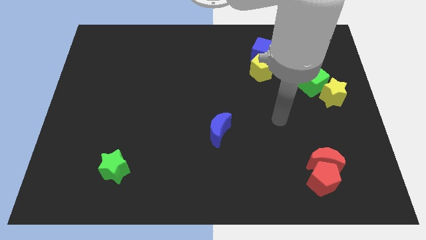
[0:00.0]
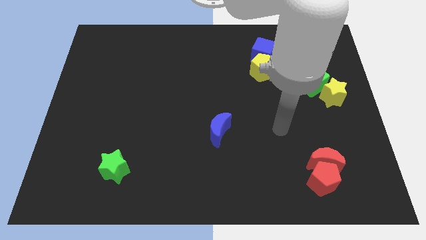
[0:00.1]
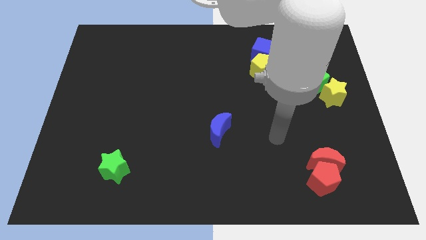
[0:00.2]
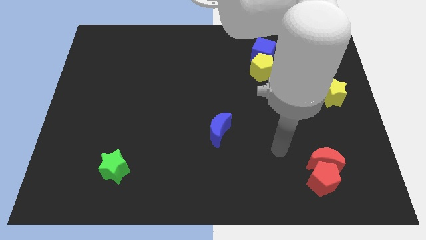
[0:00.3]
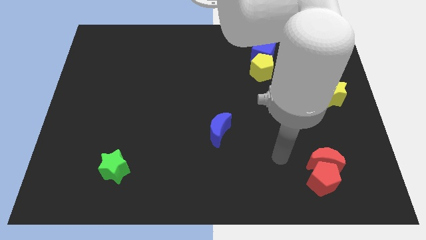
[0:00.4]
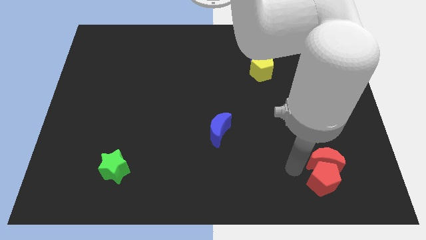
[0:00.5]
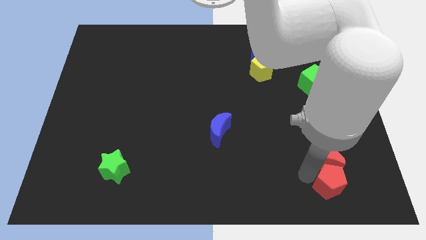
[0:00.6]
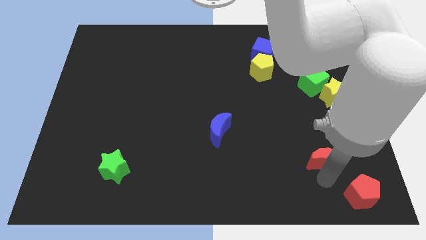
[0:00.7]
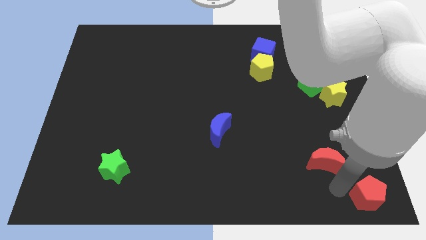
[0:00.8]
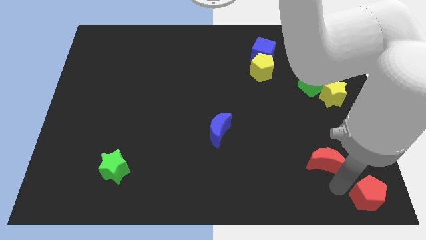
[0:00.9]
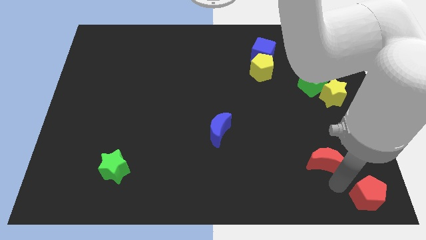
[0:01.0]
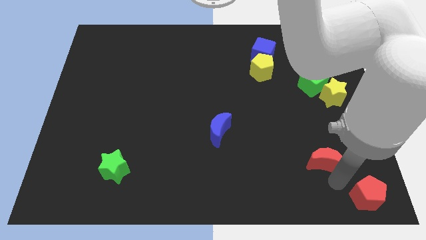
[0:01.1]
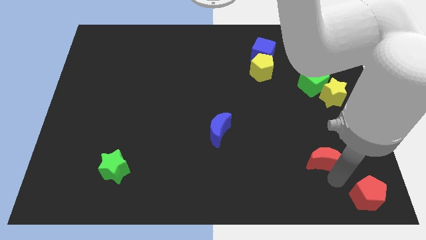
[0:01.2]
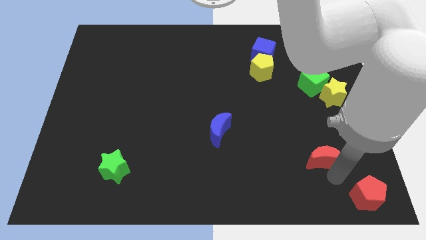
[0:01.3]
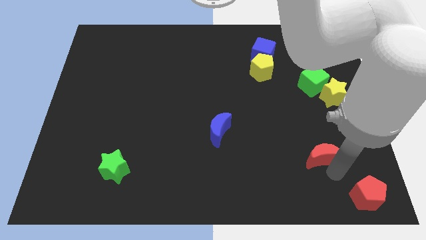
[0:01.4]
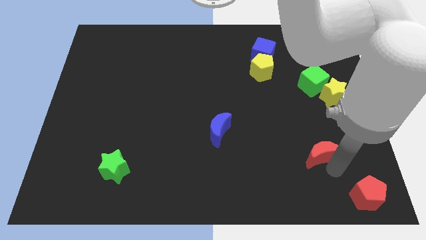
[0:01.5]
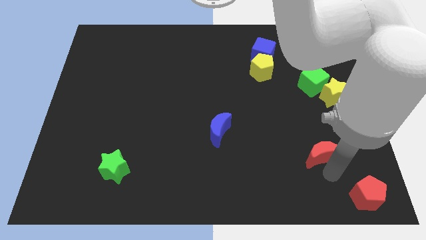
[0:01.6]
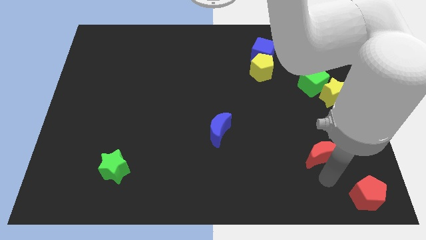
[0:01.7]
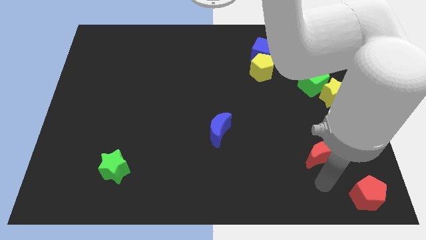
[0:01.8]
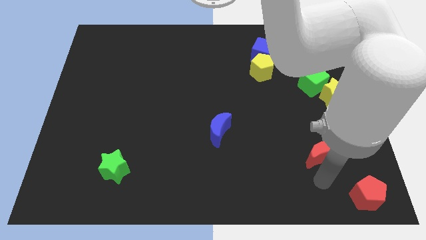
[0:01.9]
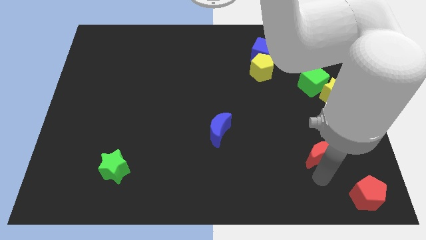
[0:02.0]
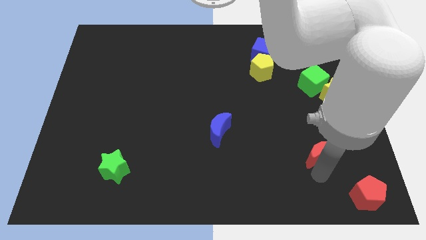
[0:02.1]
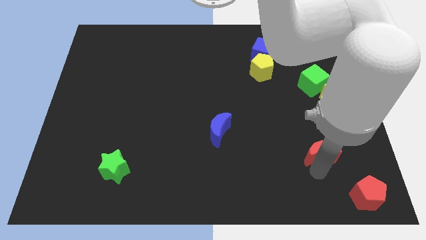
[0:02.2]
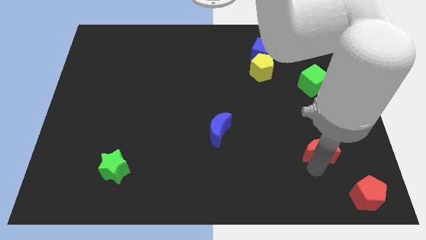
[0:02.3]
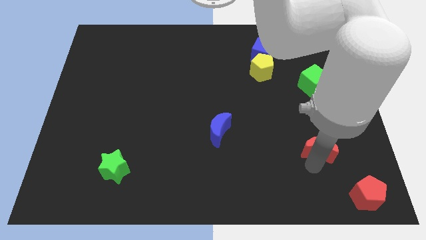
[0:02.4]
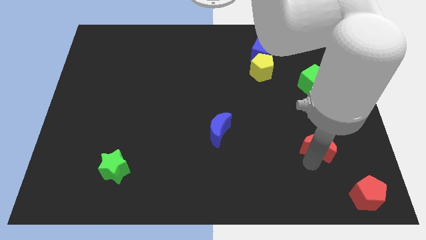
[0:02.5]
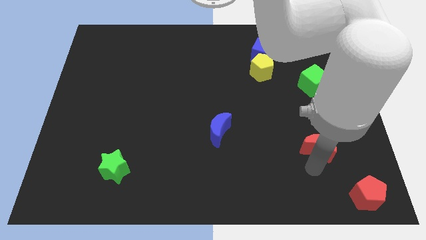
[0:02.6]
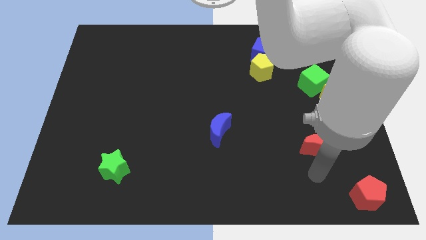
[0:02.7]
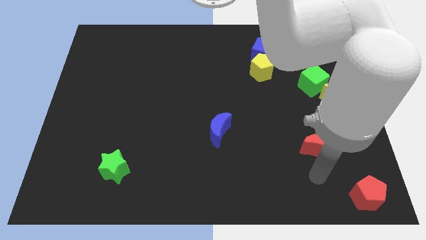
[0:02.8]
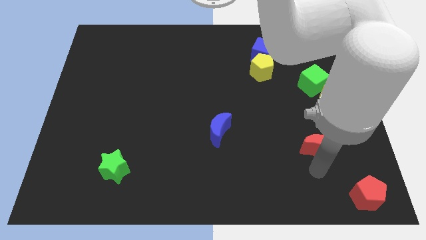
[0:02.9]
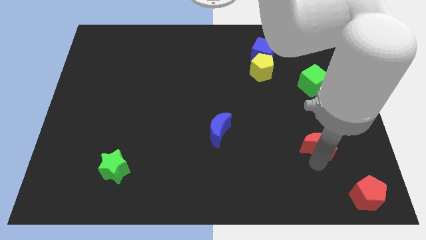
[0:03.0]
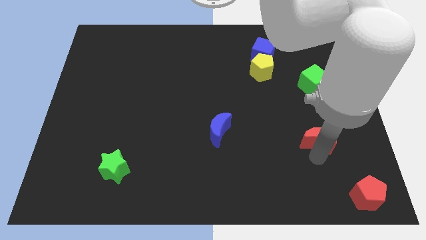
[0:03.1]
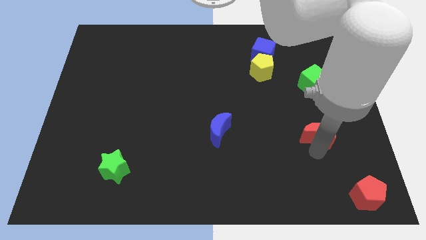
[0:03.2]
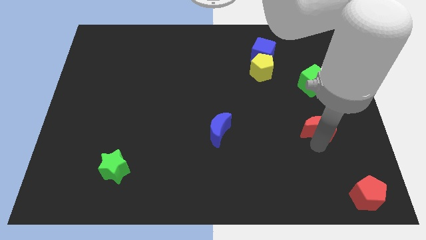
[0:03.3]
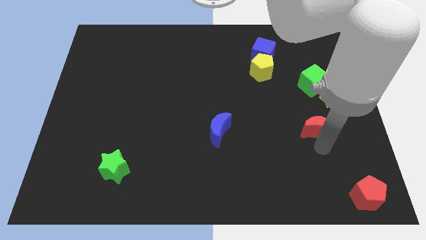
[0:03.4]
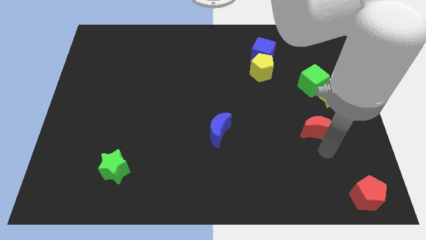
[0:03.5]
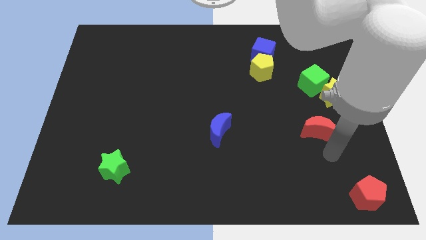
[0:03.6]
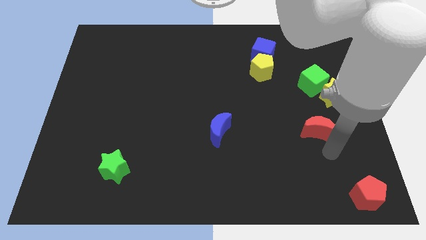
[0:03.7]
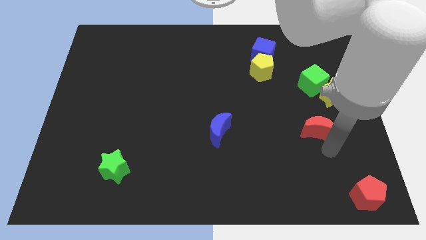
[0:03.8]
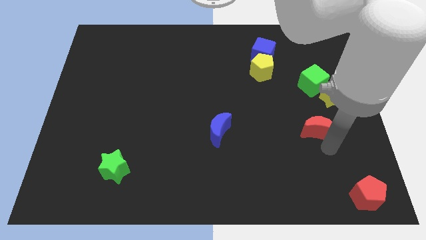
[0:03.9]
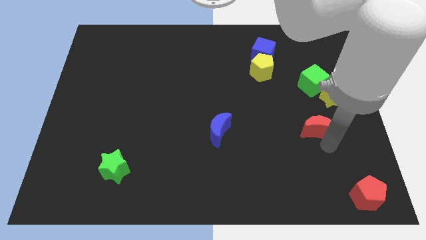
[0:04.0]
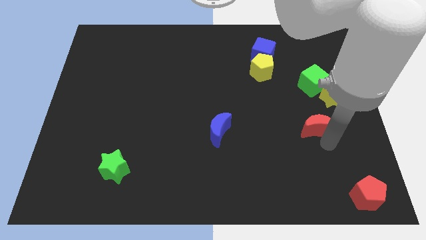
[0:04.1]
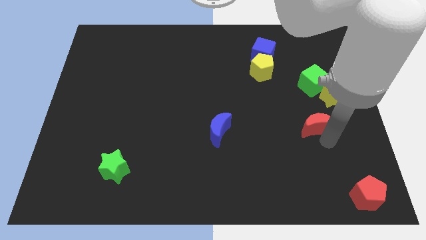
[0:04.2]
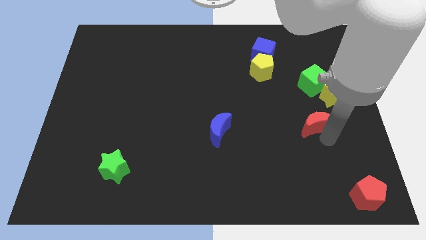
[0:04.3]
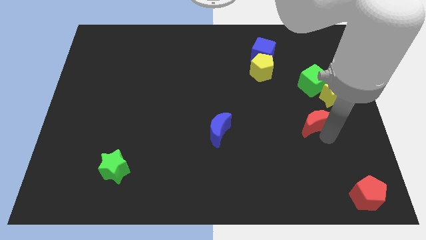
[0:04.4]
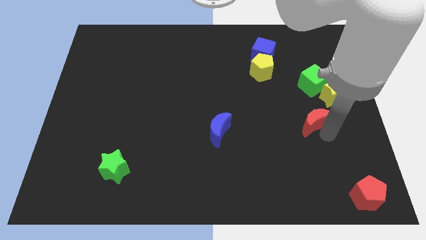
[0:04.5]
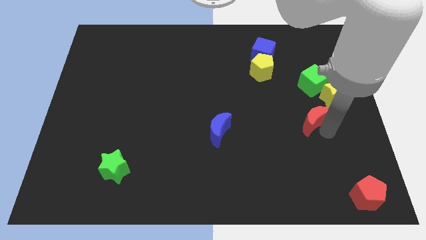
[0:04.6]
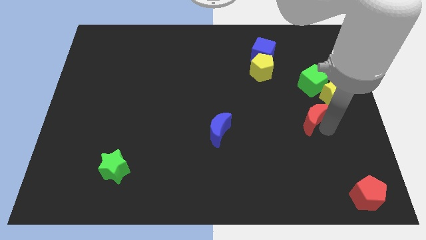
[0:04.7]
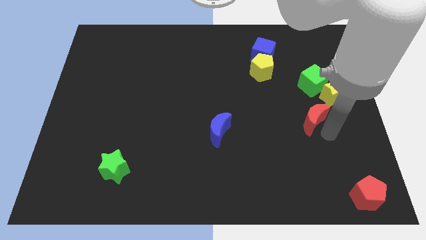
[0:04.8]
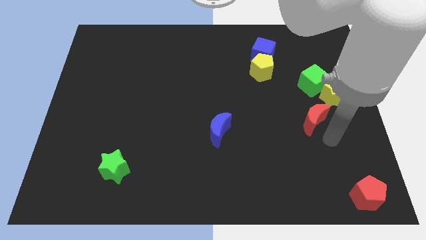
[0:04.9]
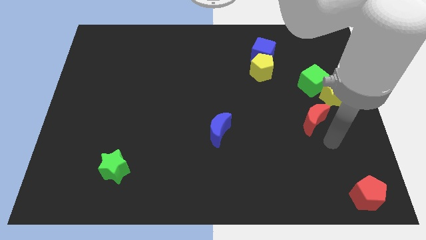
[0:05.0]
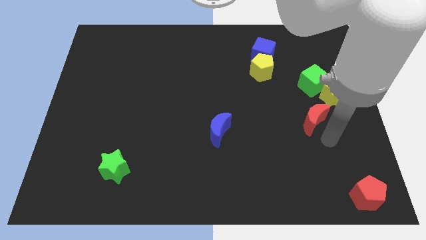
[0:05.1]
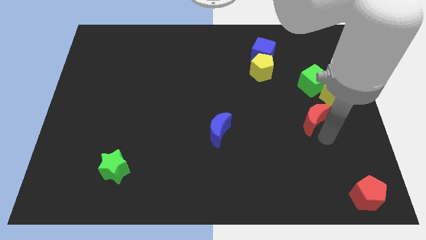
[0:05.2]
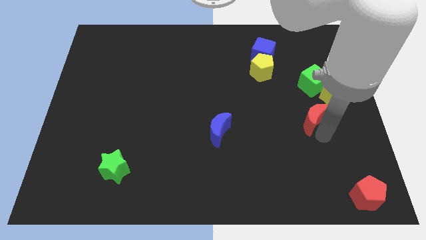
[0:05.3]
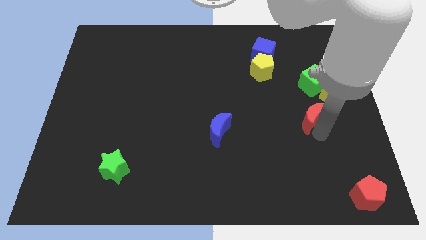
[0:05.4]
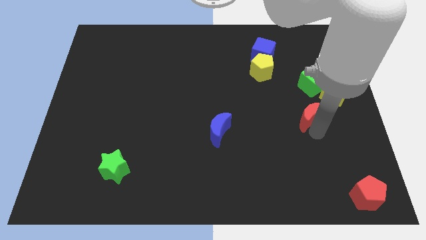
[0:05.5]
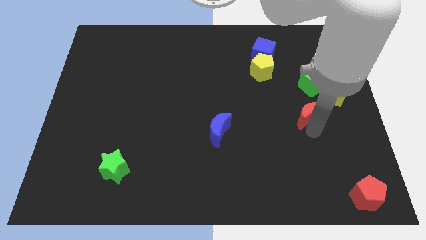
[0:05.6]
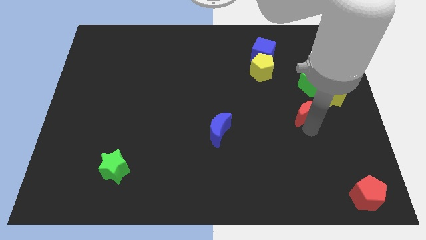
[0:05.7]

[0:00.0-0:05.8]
move the red moon to the bottom left of the green cube
